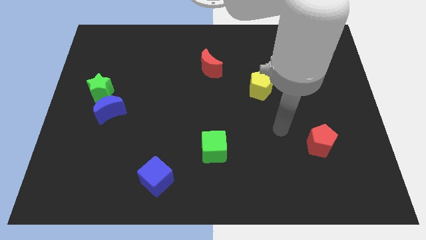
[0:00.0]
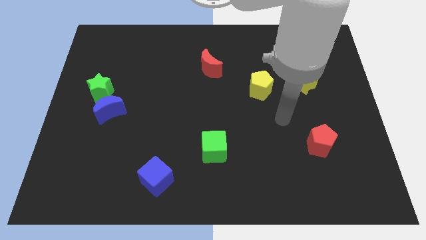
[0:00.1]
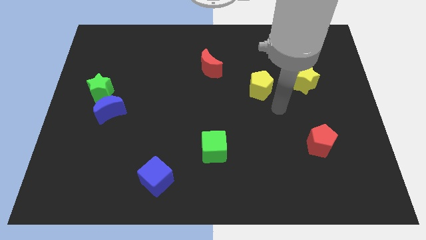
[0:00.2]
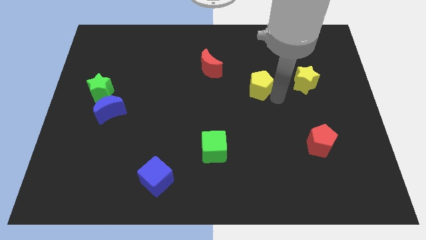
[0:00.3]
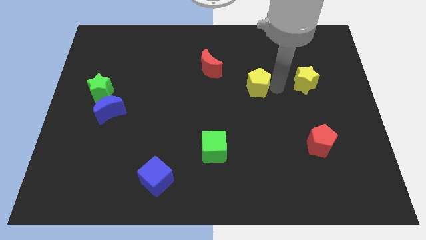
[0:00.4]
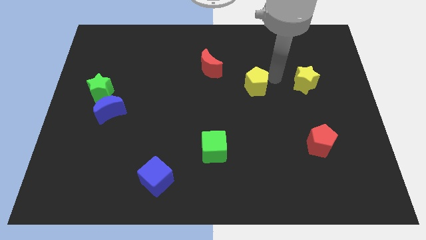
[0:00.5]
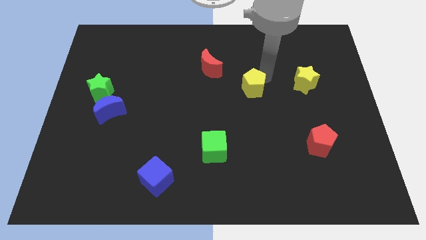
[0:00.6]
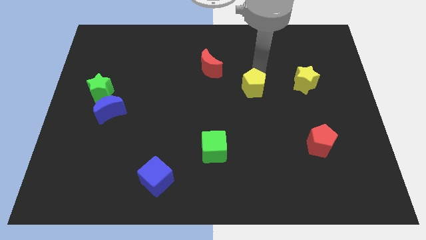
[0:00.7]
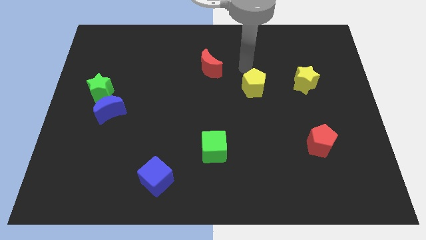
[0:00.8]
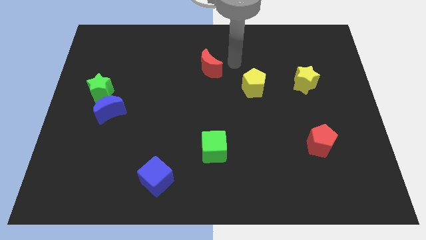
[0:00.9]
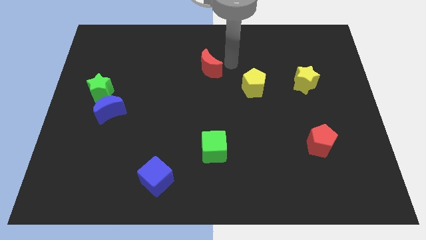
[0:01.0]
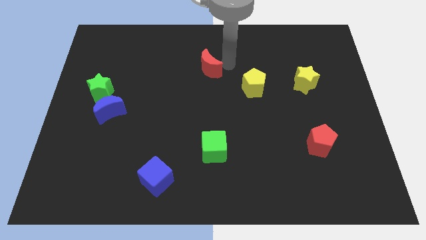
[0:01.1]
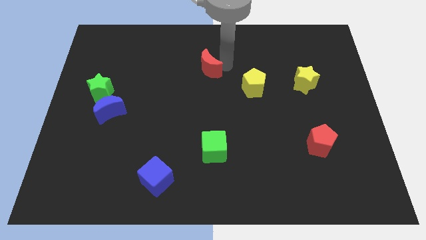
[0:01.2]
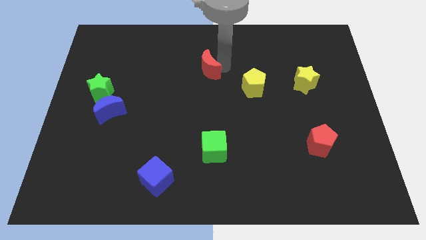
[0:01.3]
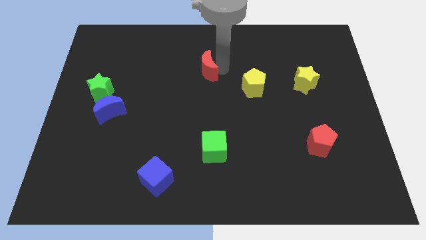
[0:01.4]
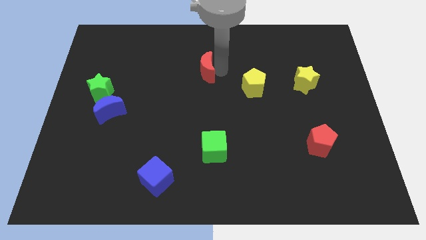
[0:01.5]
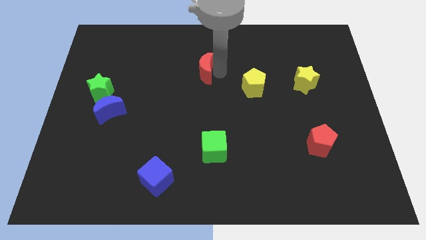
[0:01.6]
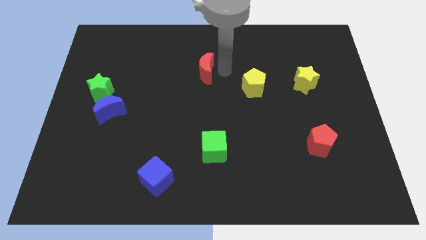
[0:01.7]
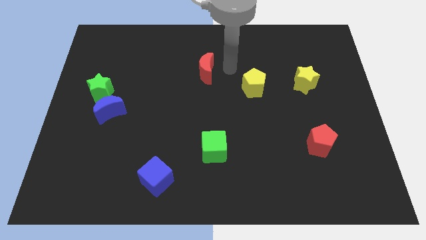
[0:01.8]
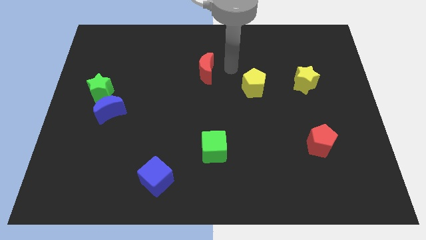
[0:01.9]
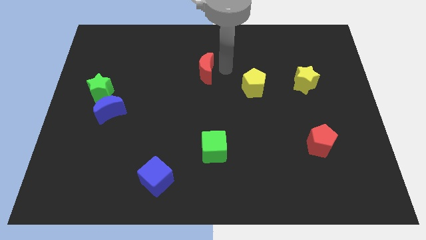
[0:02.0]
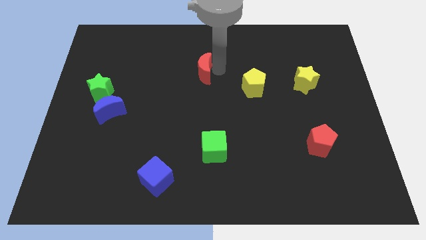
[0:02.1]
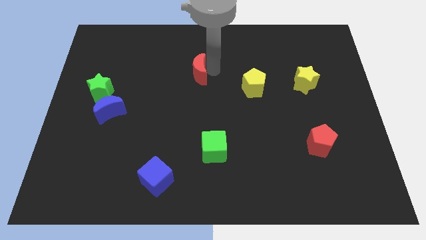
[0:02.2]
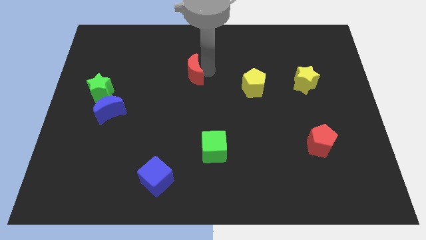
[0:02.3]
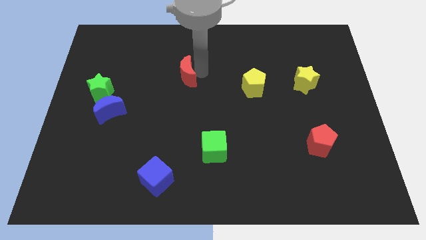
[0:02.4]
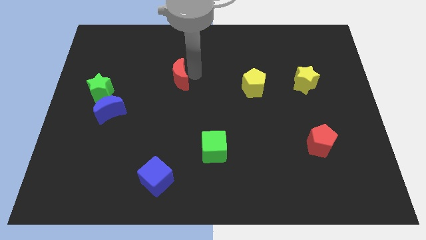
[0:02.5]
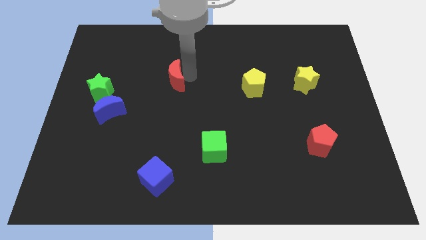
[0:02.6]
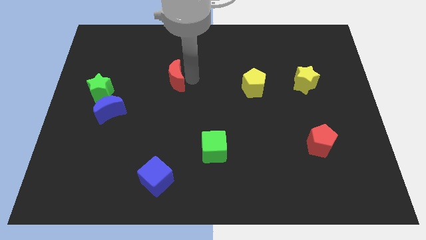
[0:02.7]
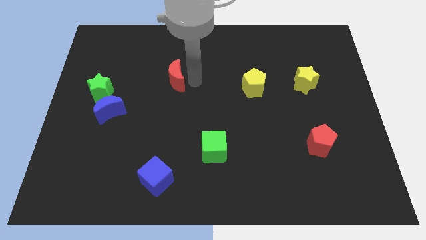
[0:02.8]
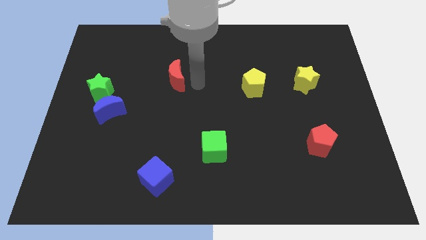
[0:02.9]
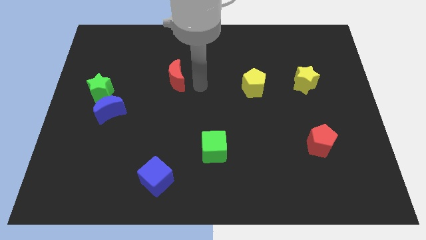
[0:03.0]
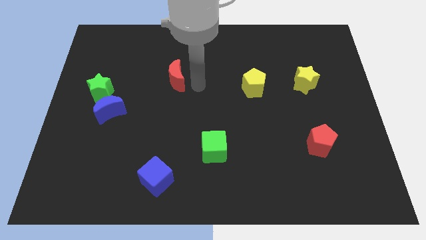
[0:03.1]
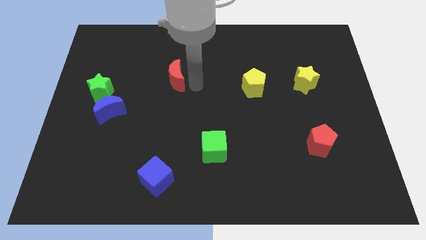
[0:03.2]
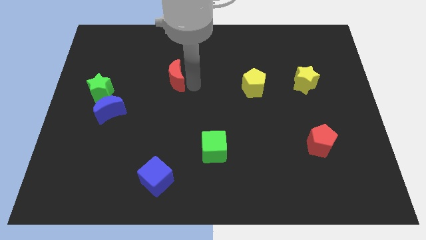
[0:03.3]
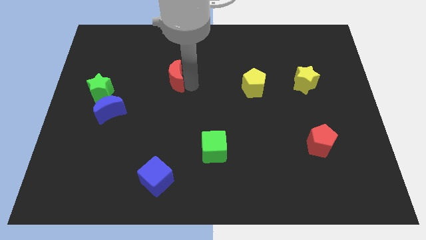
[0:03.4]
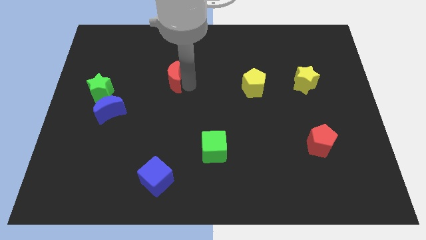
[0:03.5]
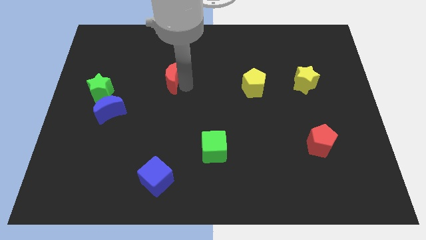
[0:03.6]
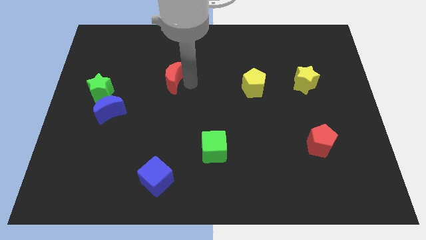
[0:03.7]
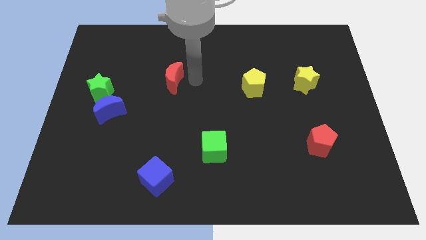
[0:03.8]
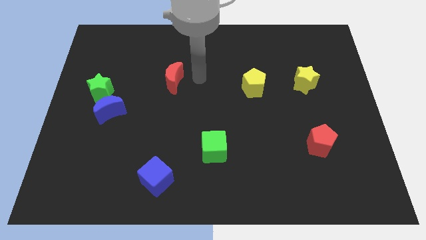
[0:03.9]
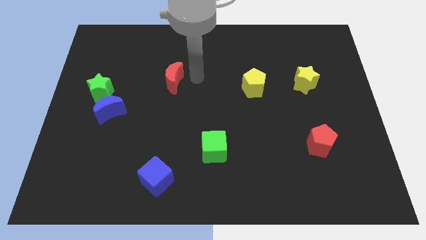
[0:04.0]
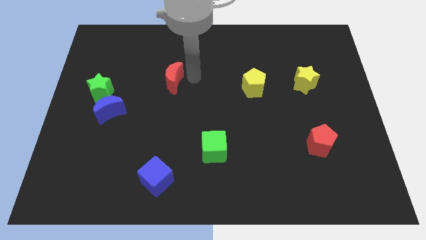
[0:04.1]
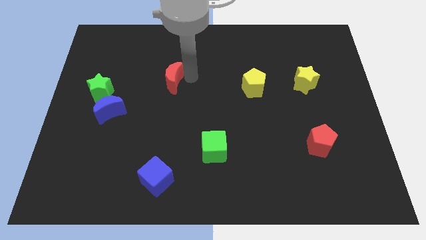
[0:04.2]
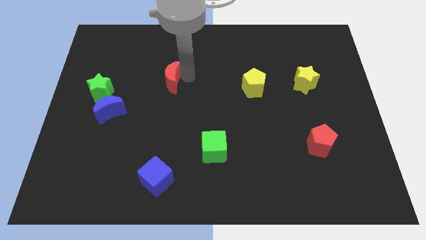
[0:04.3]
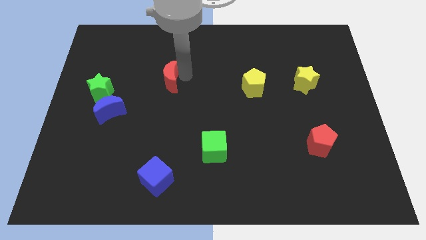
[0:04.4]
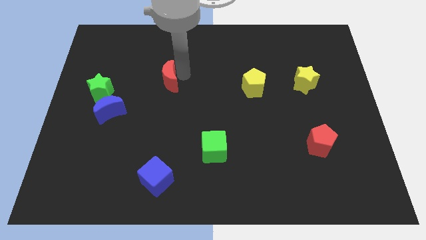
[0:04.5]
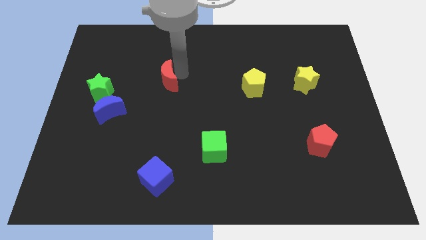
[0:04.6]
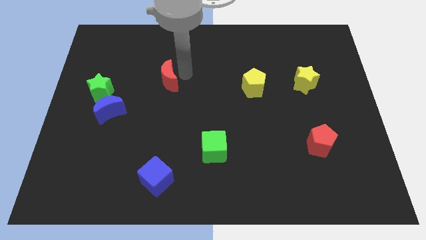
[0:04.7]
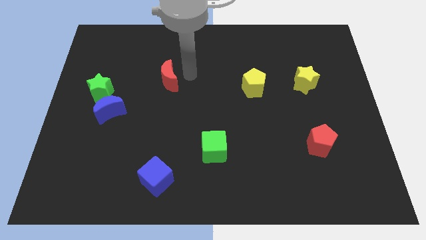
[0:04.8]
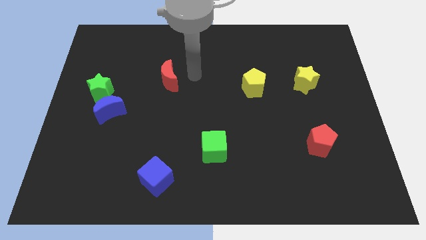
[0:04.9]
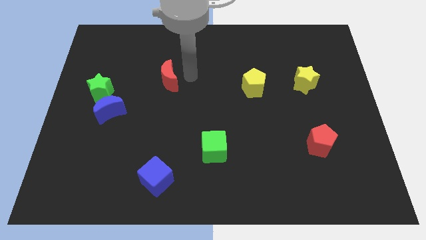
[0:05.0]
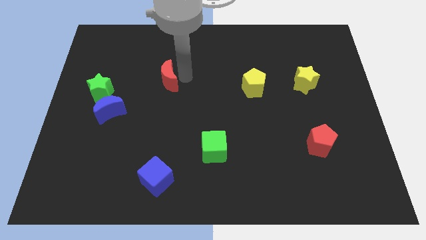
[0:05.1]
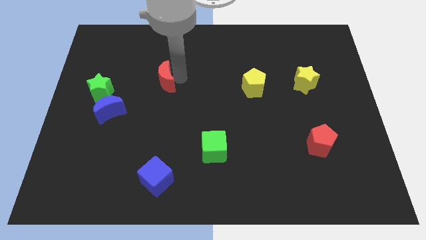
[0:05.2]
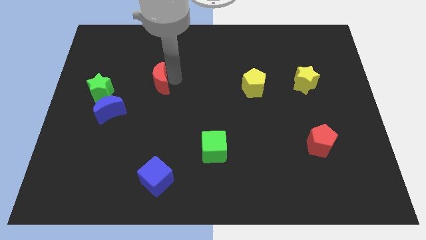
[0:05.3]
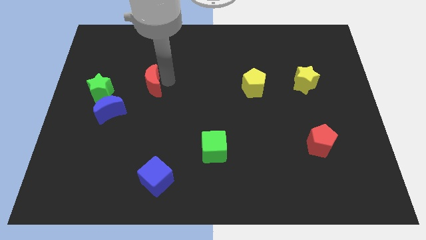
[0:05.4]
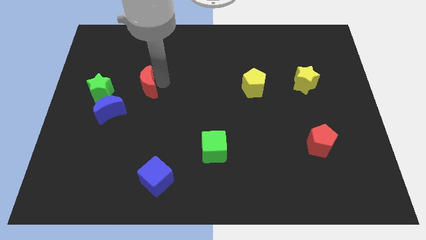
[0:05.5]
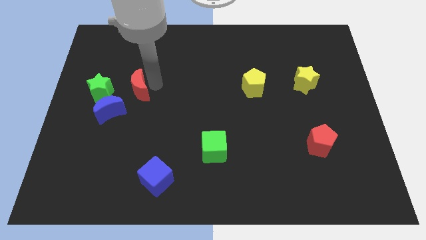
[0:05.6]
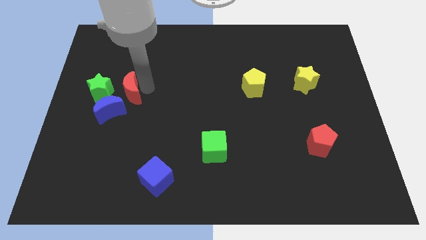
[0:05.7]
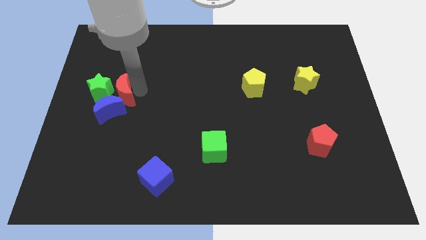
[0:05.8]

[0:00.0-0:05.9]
slide the red moon close to the green star

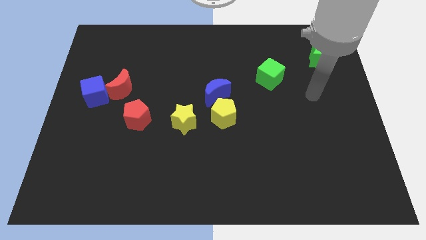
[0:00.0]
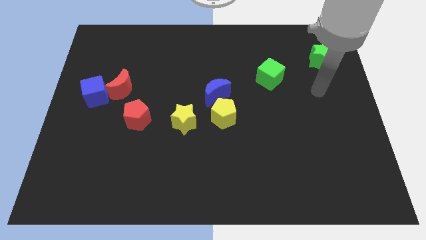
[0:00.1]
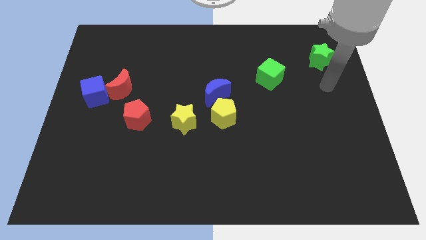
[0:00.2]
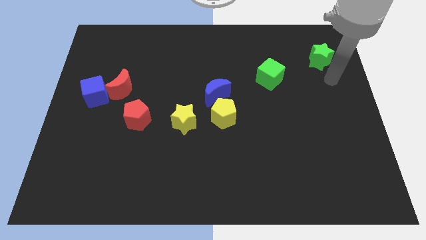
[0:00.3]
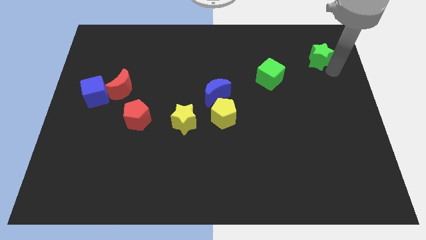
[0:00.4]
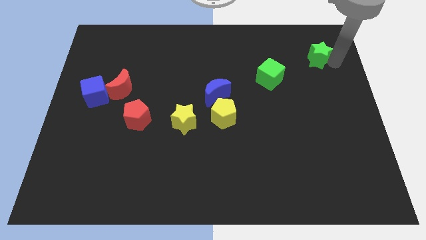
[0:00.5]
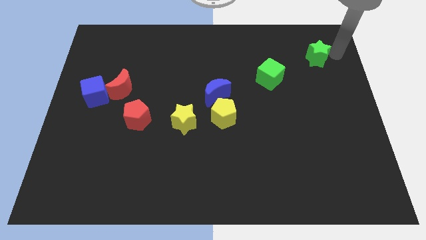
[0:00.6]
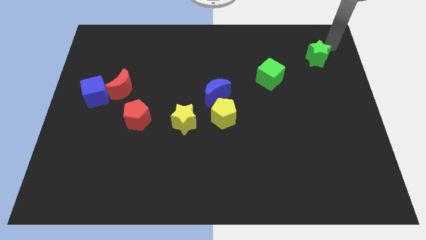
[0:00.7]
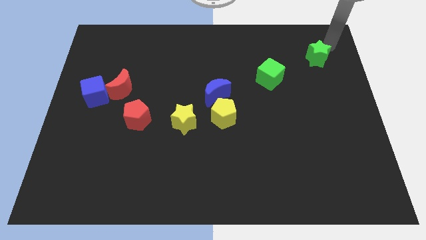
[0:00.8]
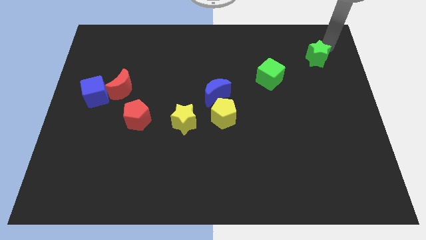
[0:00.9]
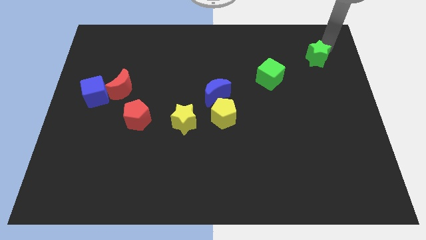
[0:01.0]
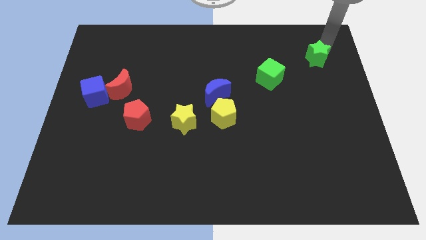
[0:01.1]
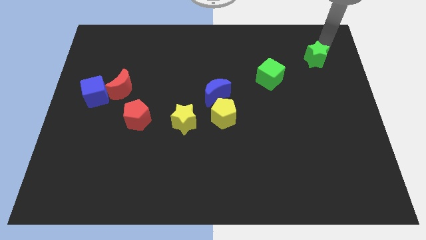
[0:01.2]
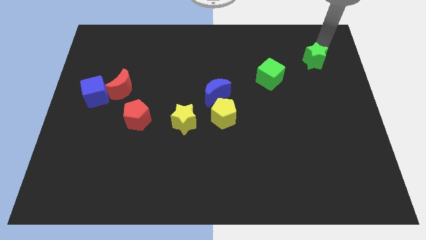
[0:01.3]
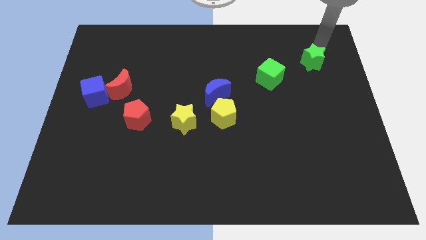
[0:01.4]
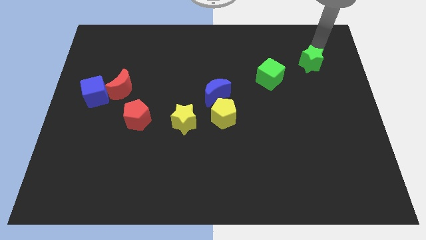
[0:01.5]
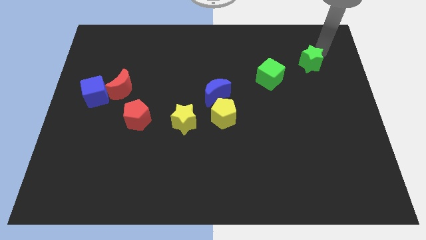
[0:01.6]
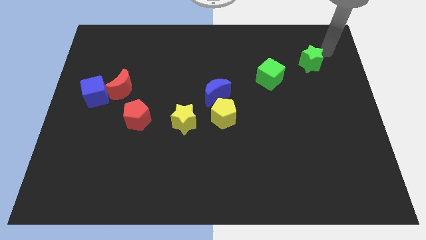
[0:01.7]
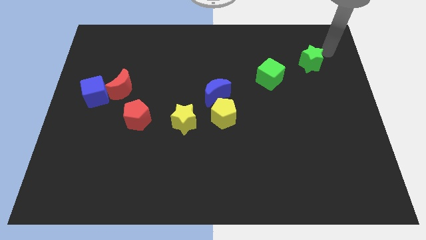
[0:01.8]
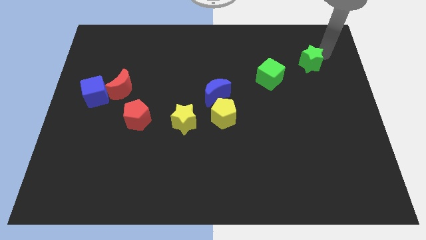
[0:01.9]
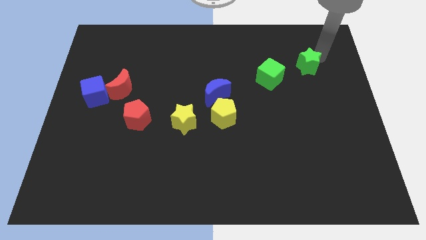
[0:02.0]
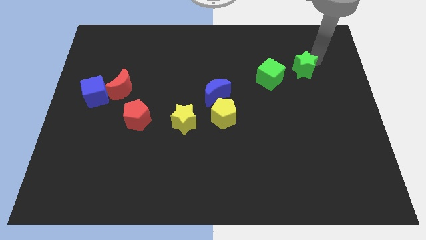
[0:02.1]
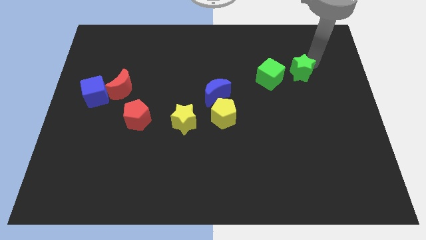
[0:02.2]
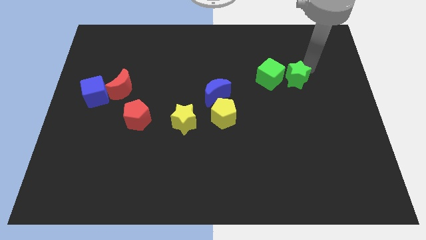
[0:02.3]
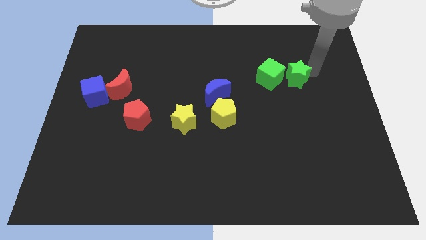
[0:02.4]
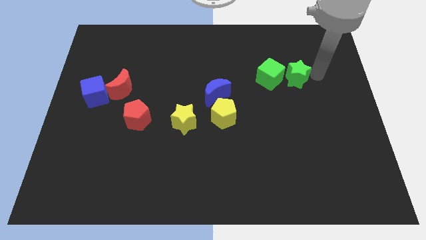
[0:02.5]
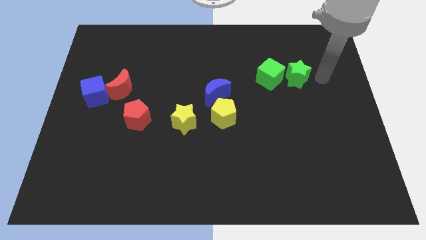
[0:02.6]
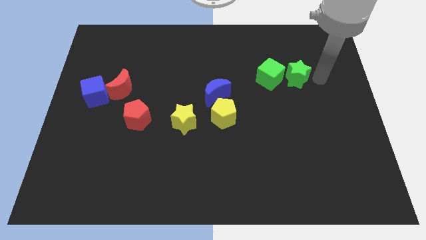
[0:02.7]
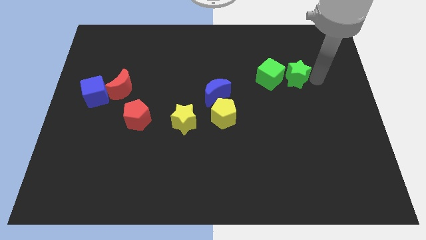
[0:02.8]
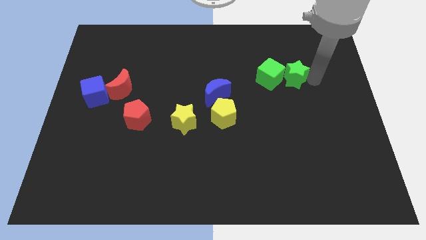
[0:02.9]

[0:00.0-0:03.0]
put the green star towards the green cube
